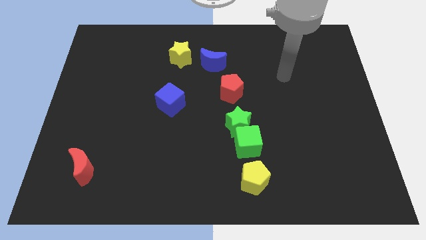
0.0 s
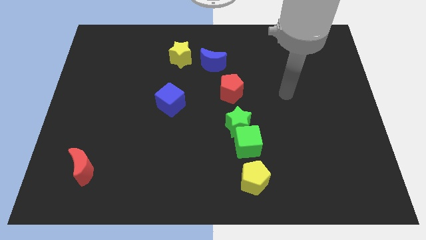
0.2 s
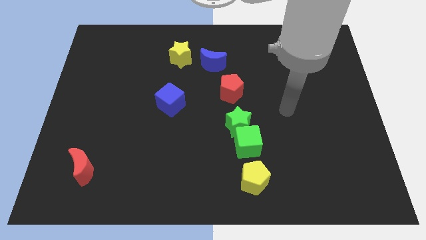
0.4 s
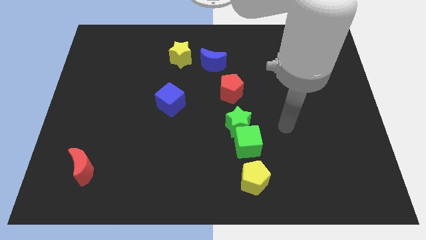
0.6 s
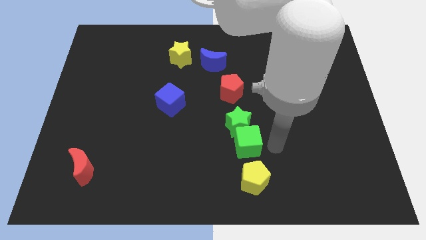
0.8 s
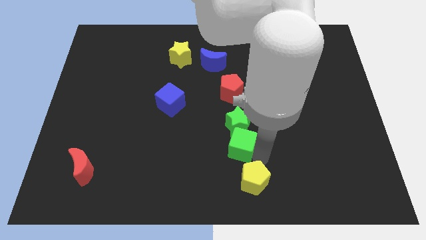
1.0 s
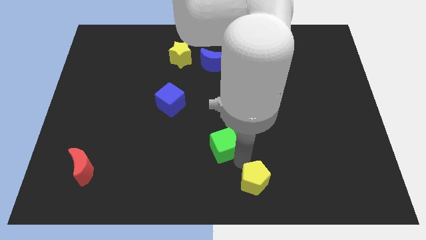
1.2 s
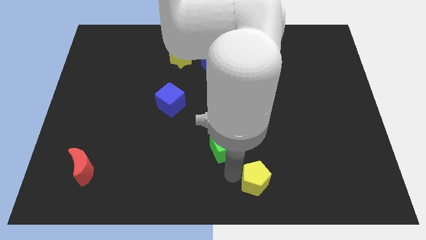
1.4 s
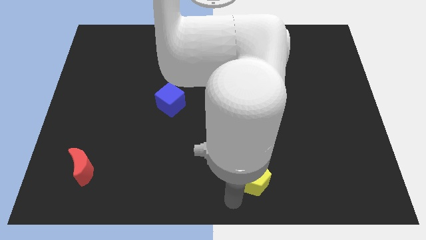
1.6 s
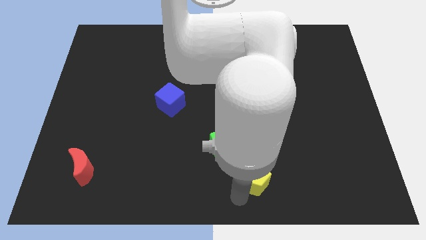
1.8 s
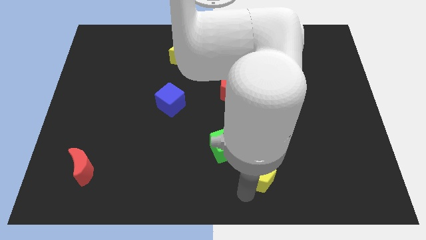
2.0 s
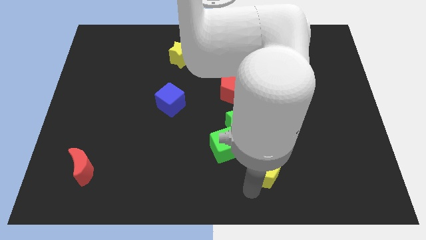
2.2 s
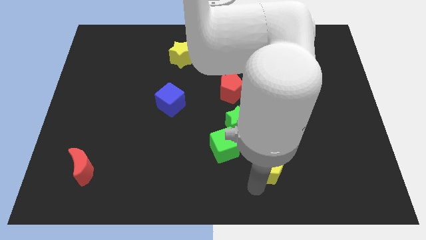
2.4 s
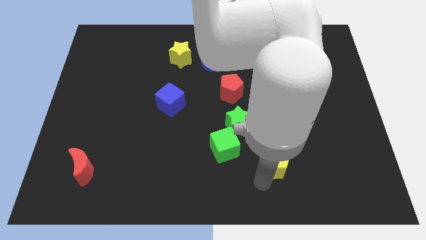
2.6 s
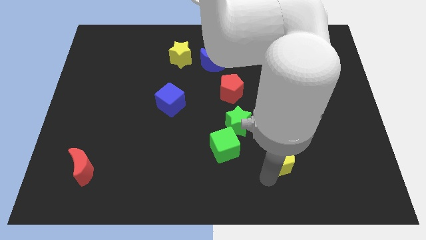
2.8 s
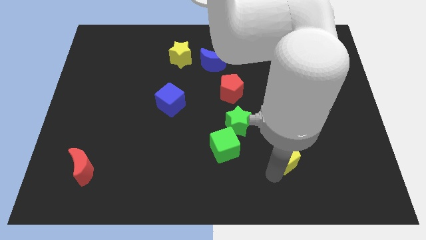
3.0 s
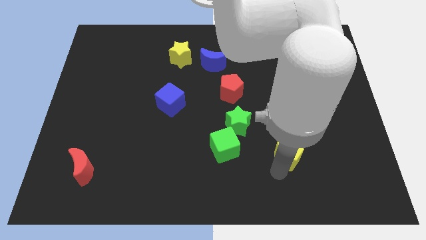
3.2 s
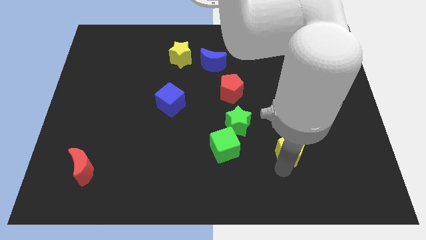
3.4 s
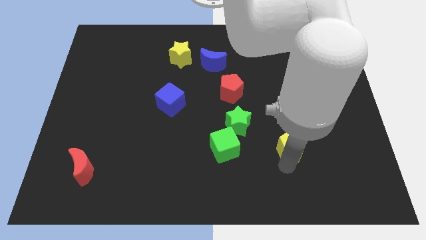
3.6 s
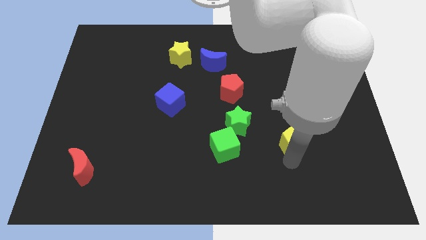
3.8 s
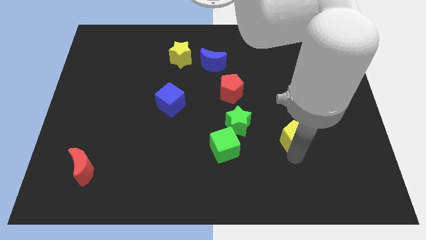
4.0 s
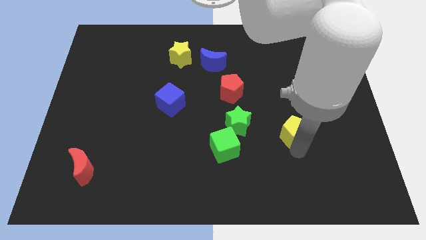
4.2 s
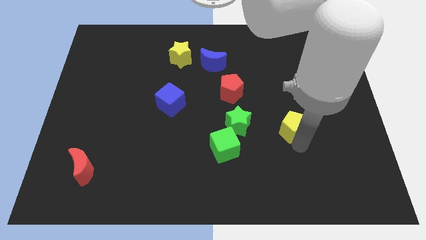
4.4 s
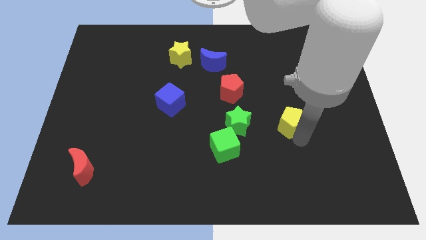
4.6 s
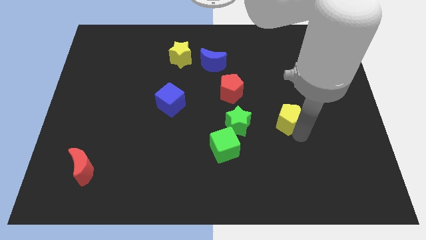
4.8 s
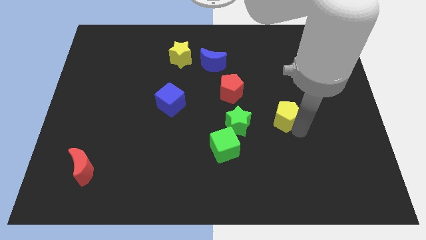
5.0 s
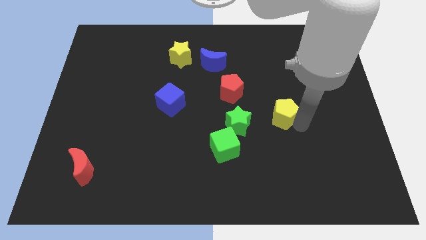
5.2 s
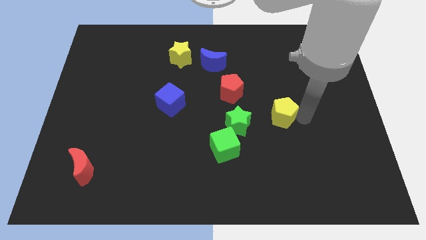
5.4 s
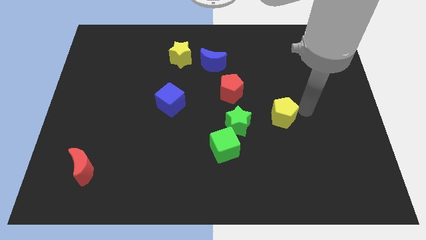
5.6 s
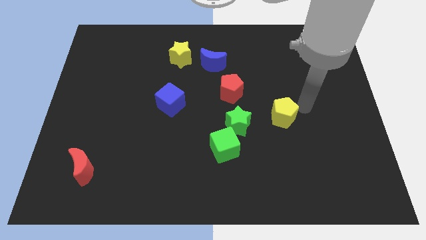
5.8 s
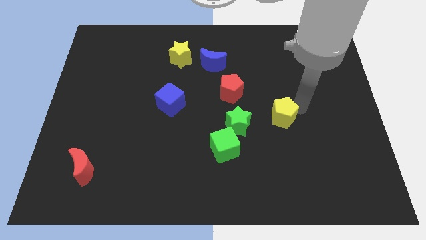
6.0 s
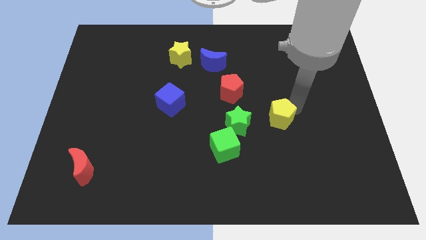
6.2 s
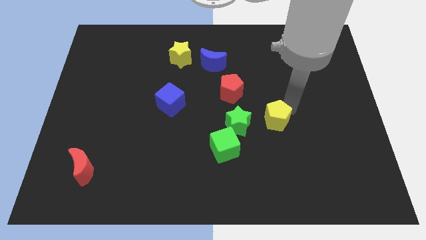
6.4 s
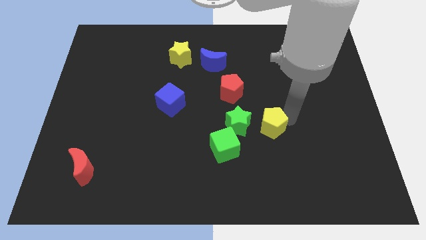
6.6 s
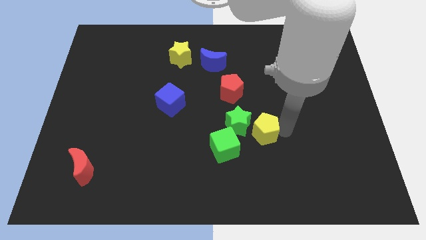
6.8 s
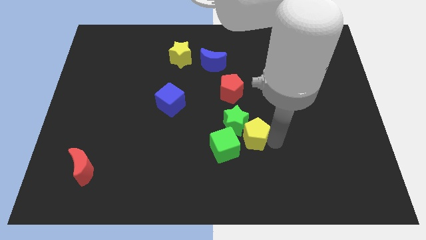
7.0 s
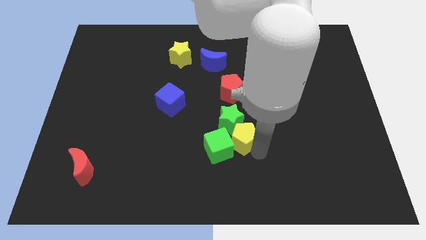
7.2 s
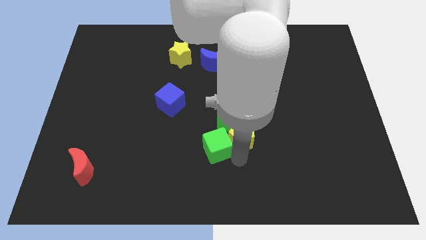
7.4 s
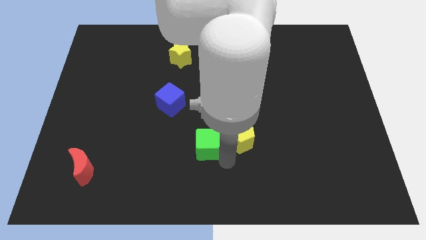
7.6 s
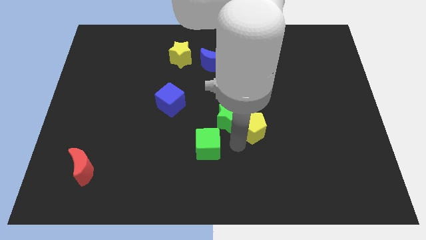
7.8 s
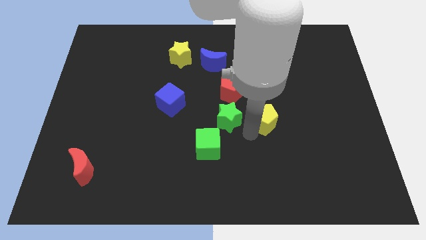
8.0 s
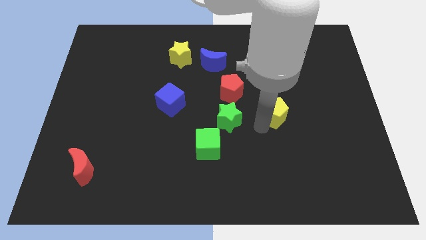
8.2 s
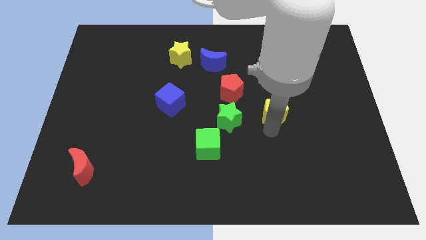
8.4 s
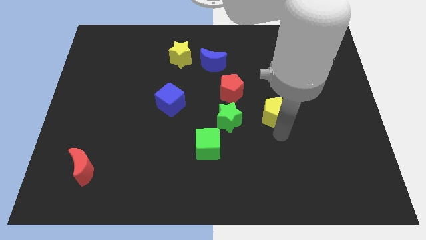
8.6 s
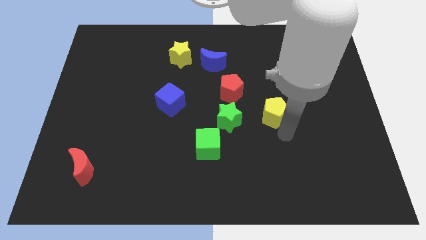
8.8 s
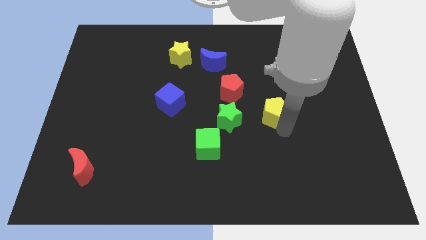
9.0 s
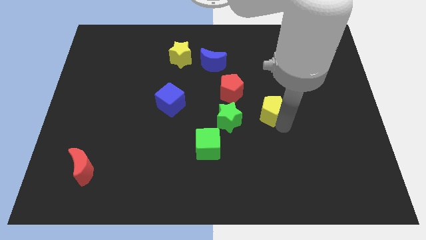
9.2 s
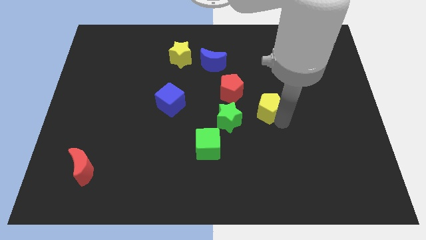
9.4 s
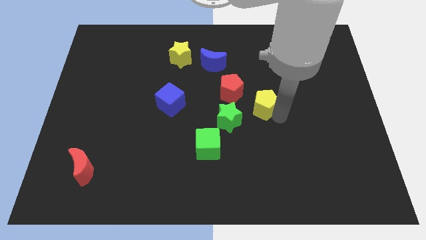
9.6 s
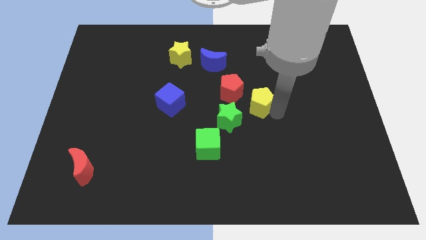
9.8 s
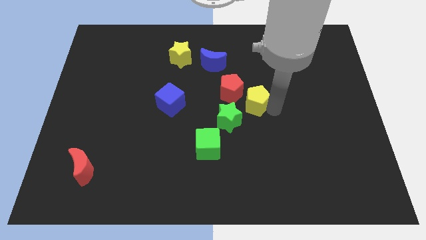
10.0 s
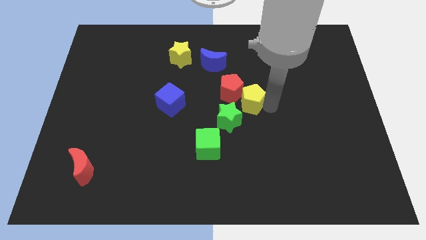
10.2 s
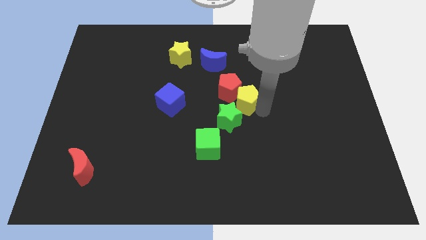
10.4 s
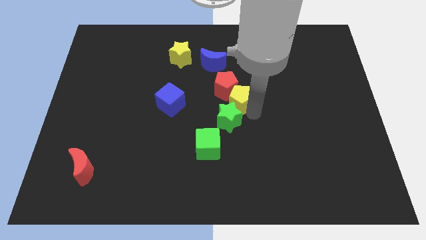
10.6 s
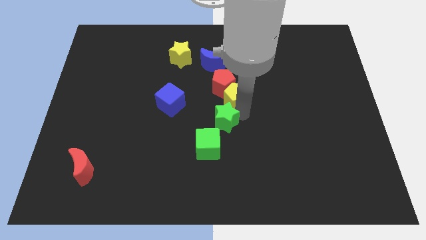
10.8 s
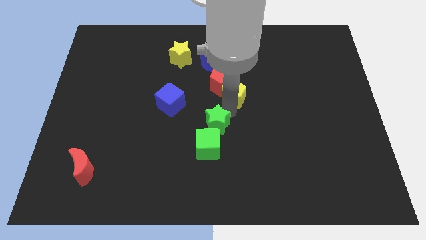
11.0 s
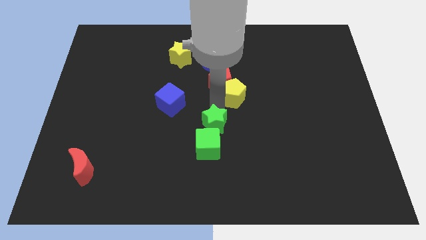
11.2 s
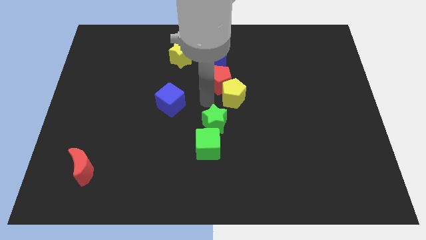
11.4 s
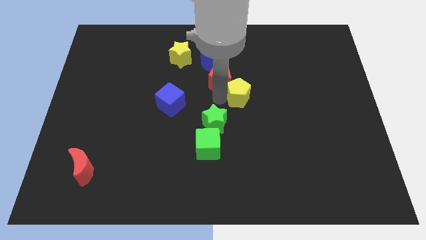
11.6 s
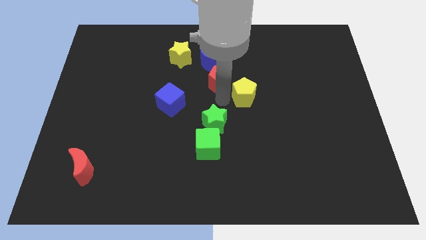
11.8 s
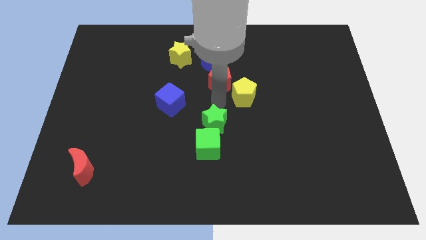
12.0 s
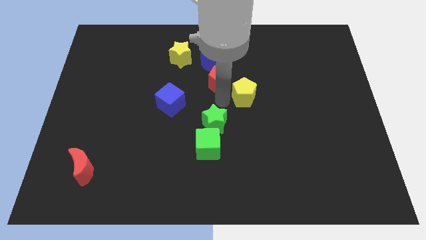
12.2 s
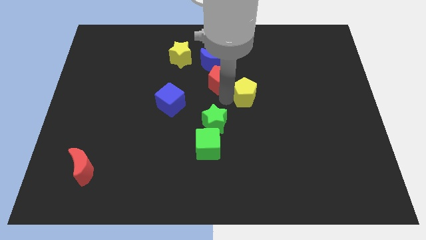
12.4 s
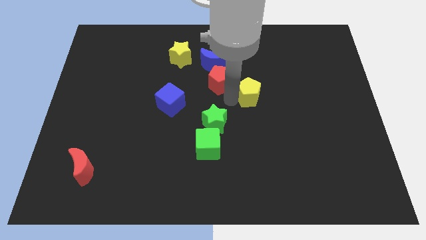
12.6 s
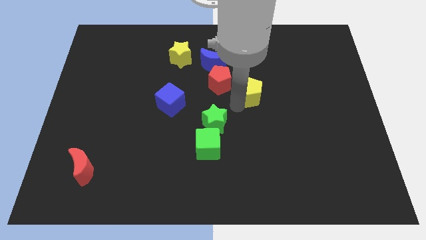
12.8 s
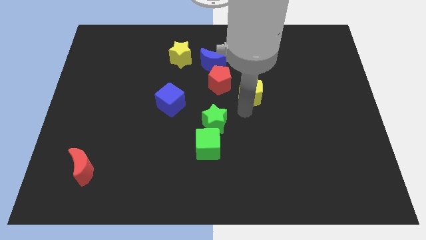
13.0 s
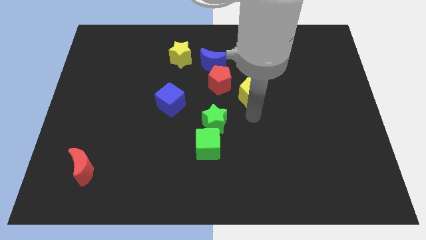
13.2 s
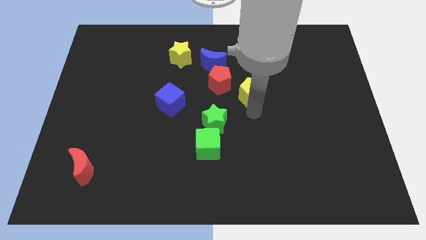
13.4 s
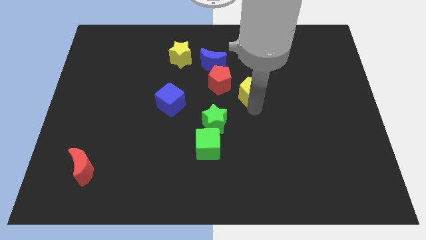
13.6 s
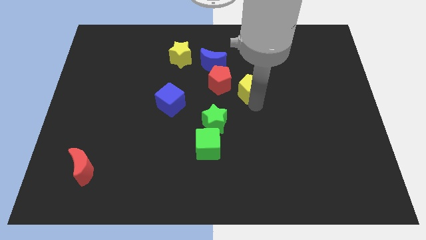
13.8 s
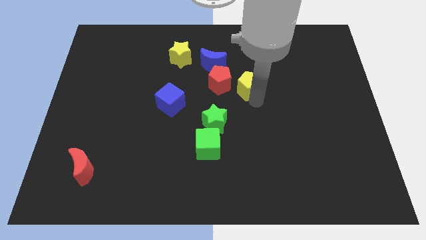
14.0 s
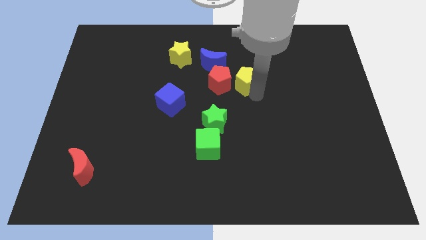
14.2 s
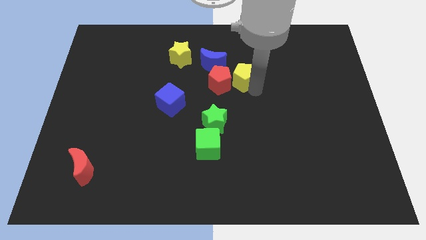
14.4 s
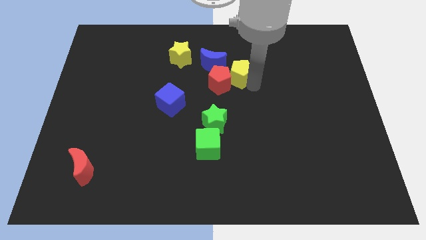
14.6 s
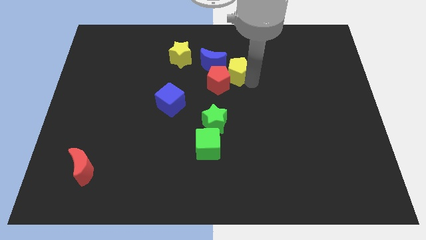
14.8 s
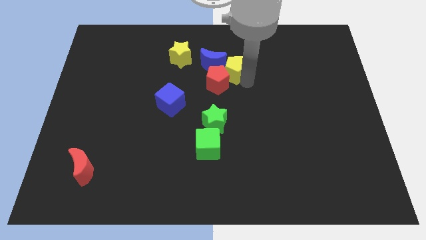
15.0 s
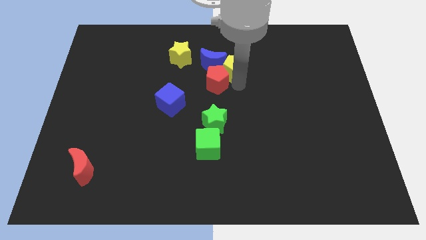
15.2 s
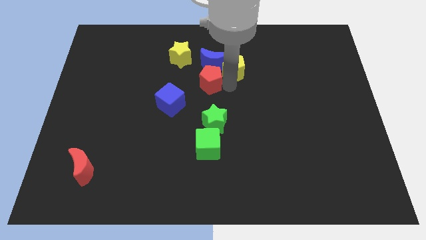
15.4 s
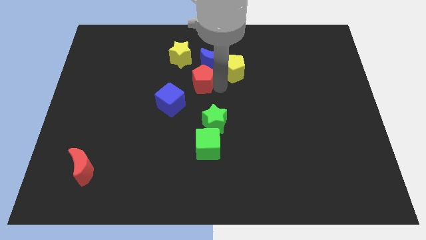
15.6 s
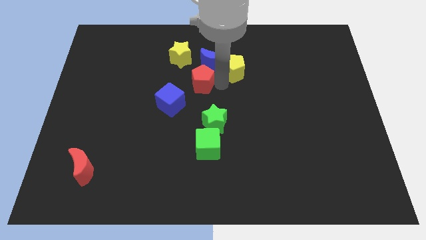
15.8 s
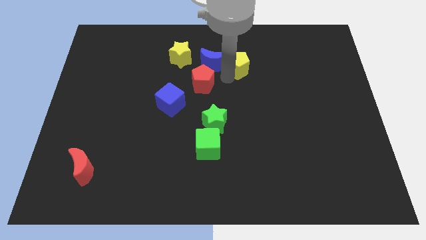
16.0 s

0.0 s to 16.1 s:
put the yellow pentagon to the right of the yellow star
